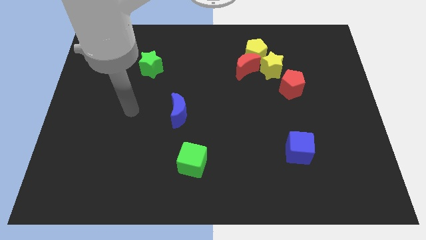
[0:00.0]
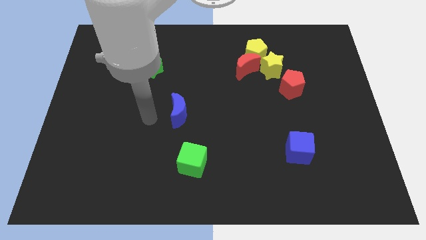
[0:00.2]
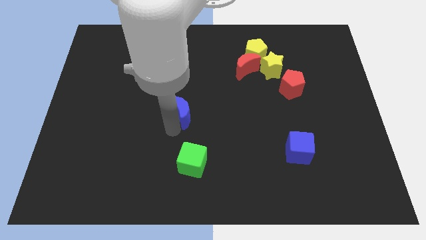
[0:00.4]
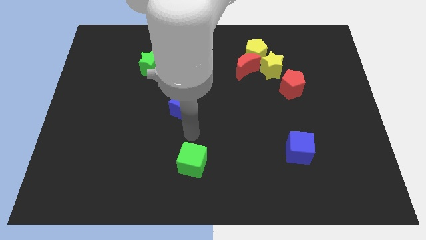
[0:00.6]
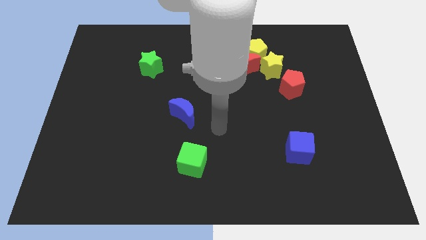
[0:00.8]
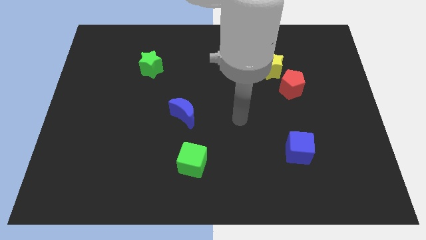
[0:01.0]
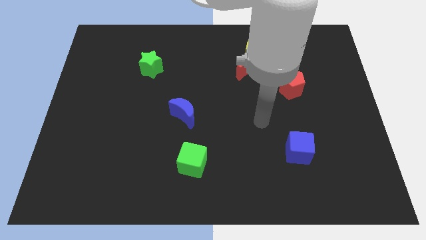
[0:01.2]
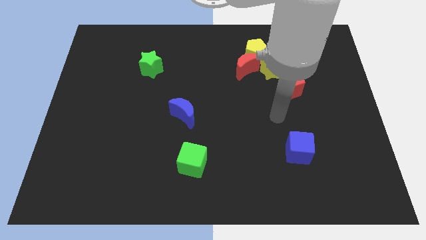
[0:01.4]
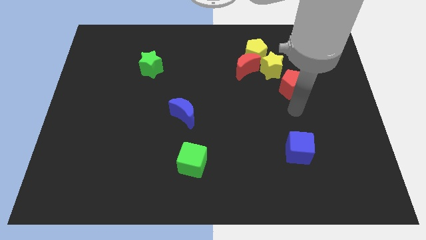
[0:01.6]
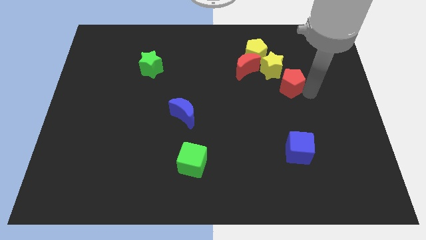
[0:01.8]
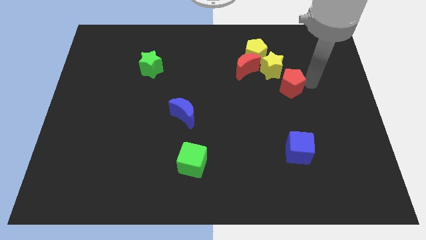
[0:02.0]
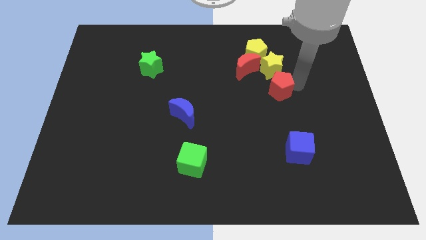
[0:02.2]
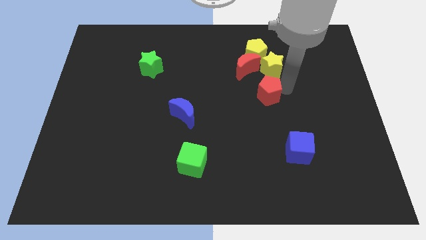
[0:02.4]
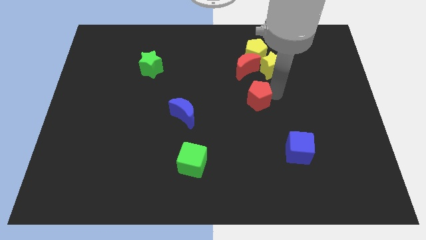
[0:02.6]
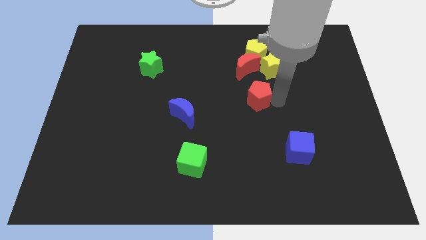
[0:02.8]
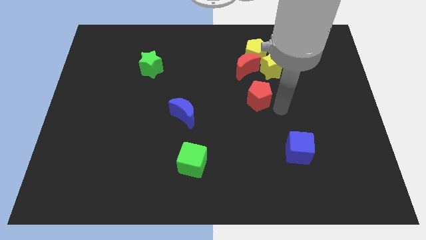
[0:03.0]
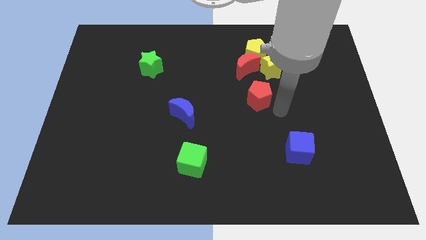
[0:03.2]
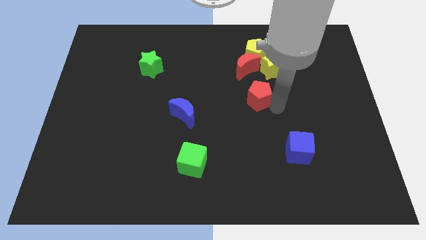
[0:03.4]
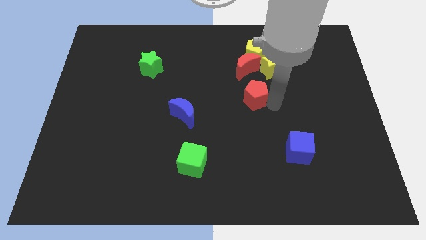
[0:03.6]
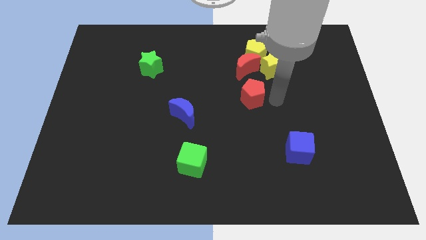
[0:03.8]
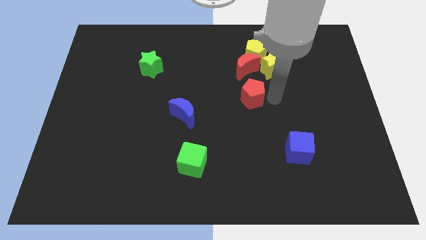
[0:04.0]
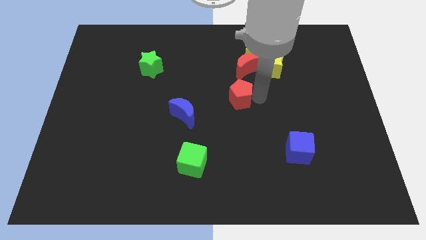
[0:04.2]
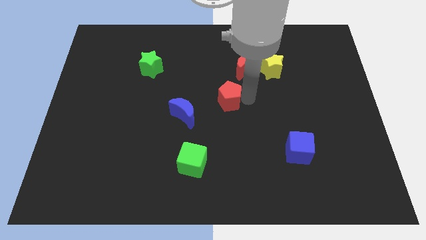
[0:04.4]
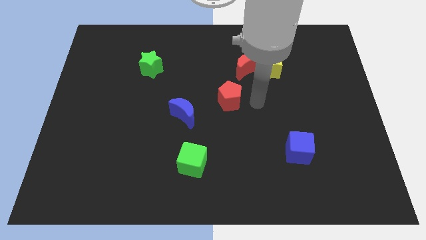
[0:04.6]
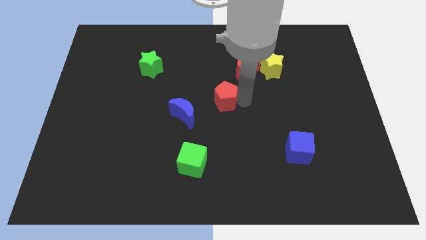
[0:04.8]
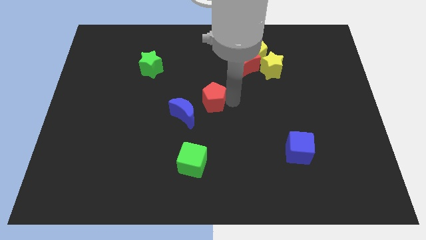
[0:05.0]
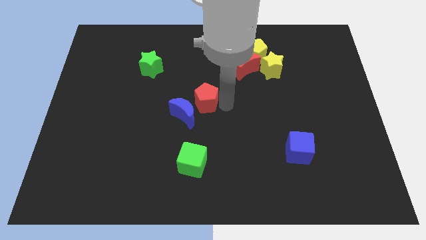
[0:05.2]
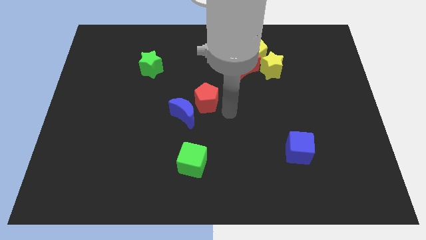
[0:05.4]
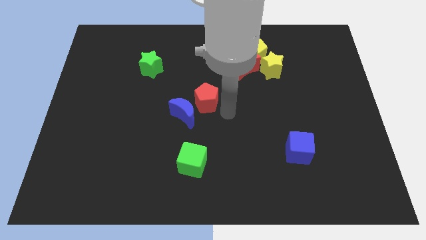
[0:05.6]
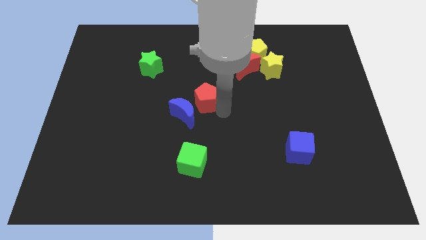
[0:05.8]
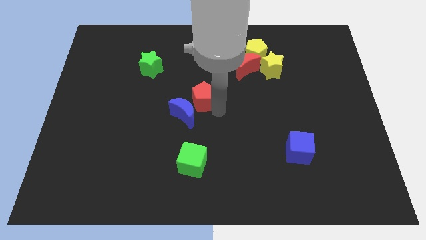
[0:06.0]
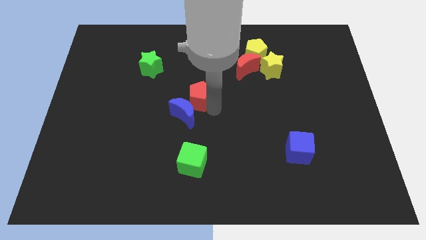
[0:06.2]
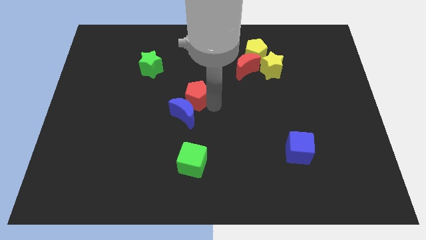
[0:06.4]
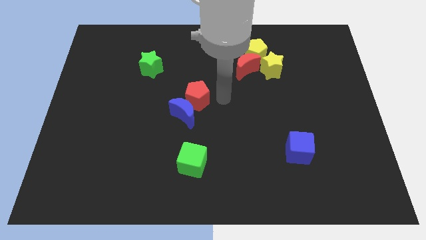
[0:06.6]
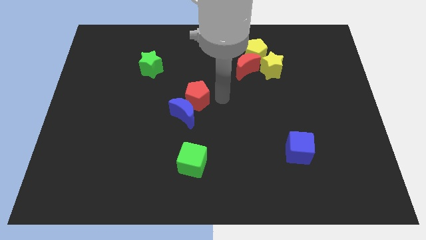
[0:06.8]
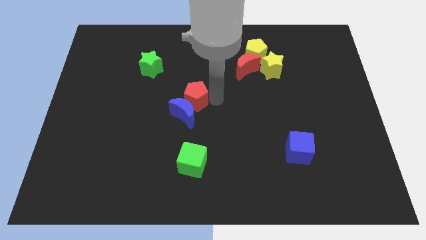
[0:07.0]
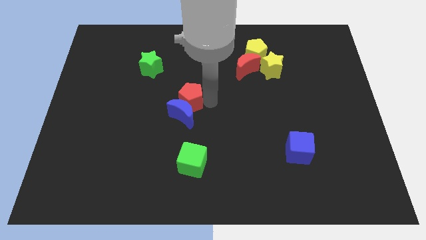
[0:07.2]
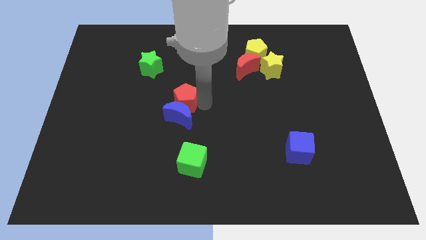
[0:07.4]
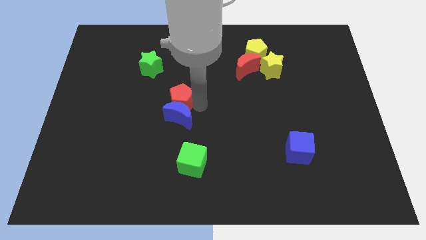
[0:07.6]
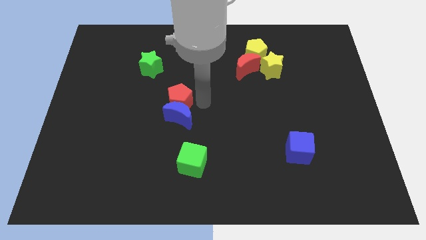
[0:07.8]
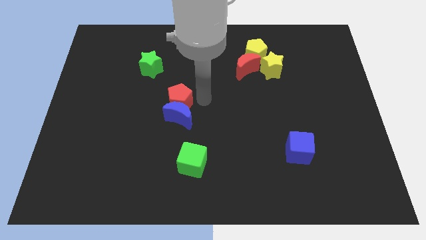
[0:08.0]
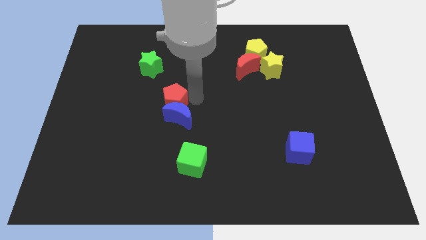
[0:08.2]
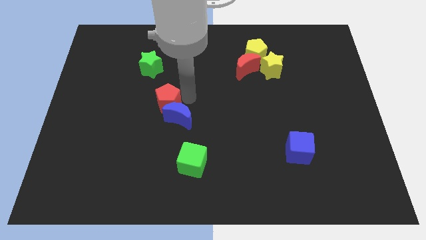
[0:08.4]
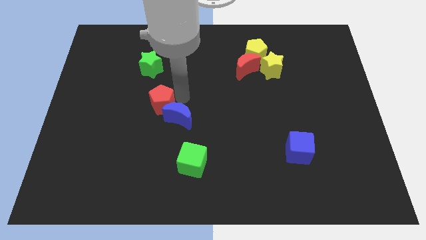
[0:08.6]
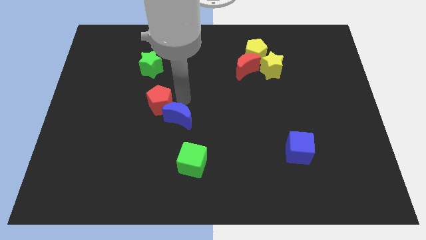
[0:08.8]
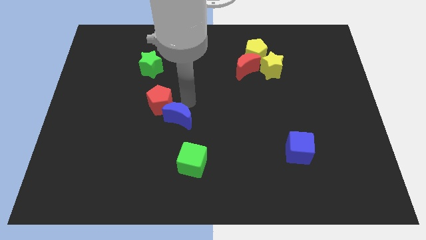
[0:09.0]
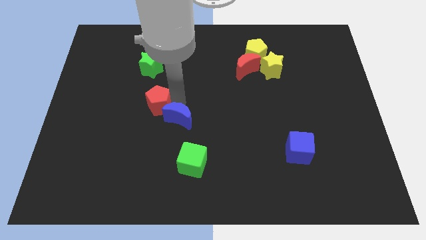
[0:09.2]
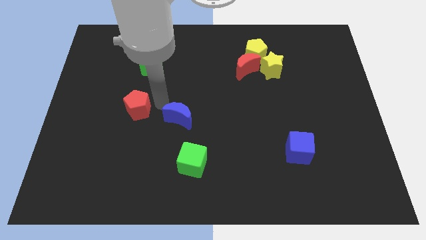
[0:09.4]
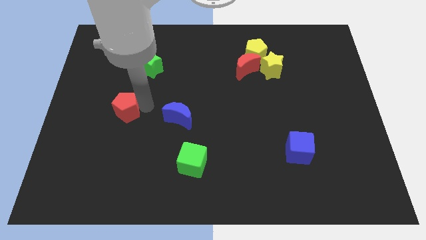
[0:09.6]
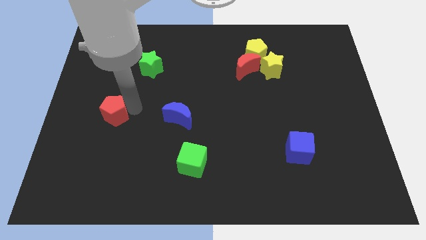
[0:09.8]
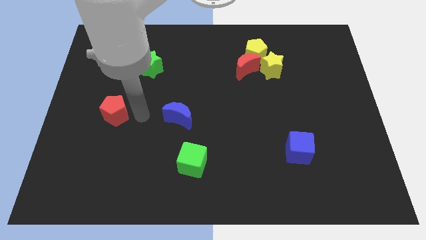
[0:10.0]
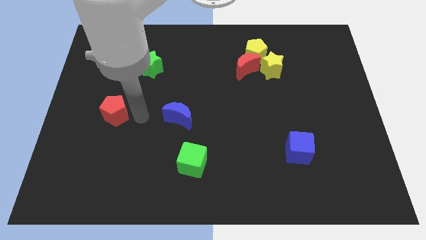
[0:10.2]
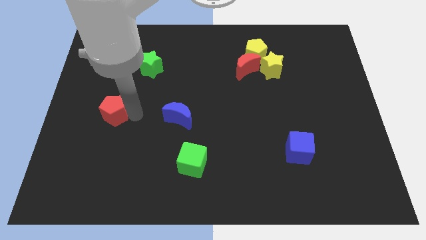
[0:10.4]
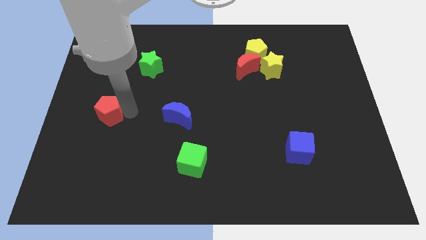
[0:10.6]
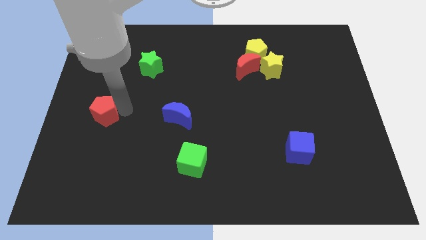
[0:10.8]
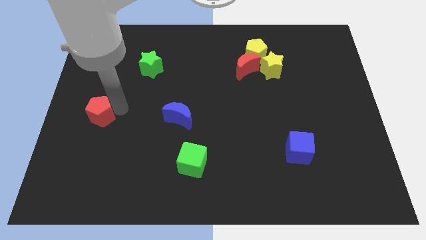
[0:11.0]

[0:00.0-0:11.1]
move the red pentagon to the left side of the board

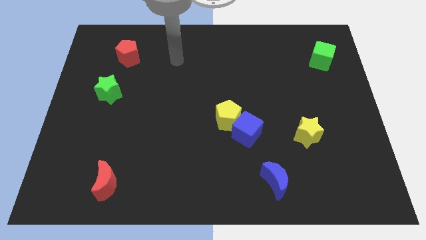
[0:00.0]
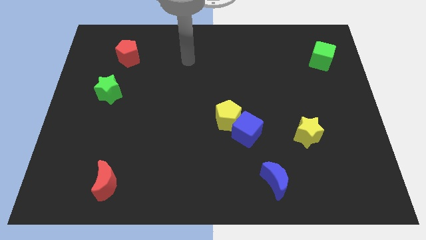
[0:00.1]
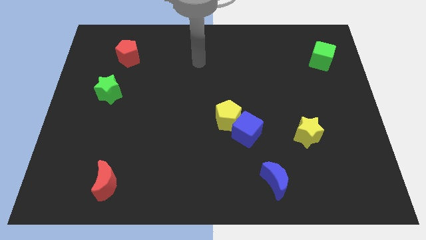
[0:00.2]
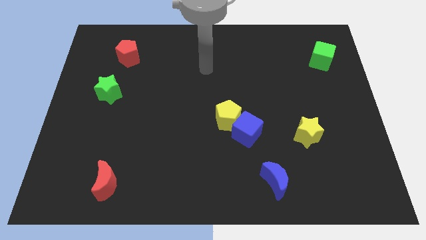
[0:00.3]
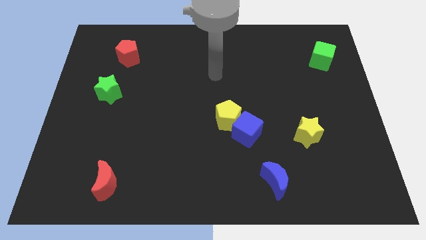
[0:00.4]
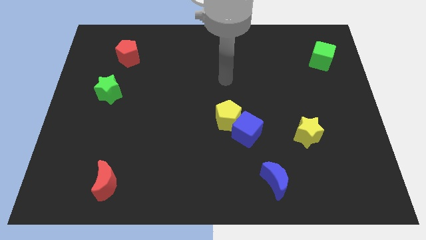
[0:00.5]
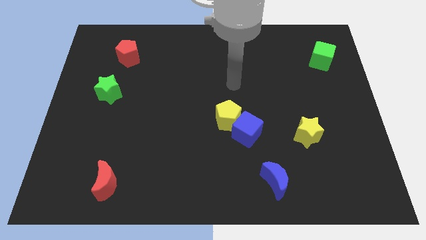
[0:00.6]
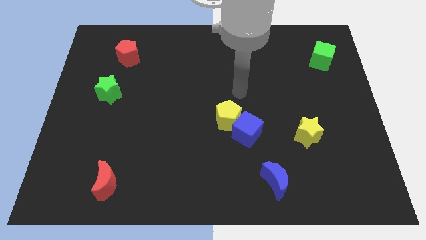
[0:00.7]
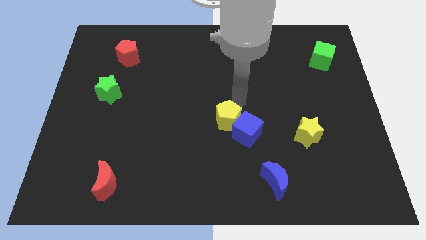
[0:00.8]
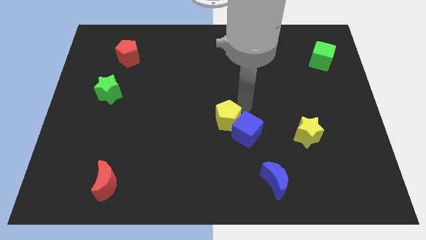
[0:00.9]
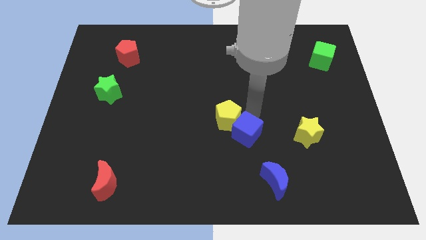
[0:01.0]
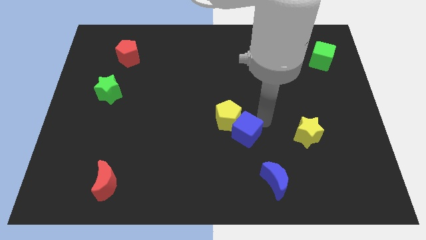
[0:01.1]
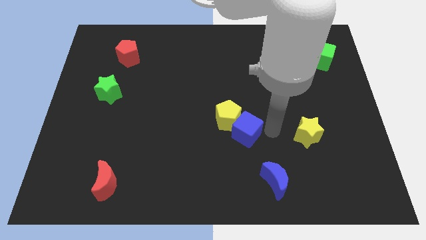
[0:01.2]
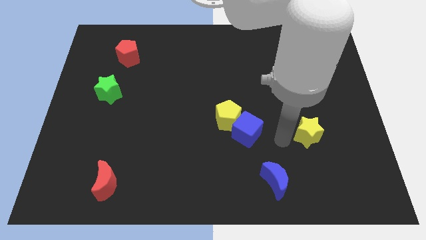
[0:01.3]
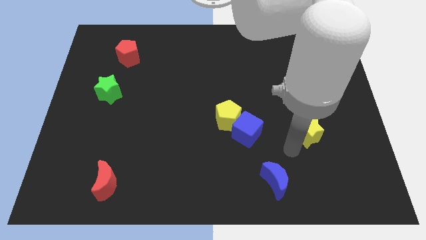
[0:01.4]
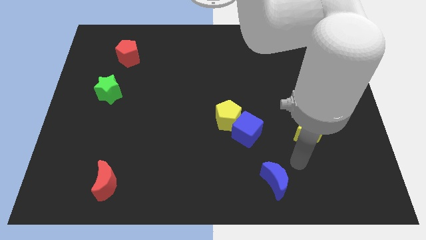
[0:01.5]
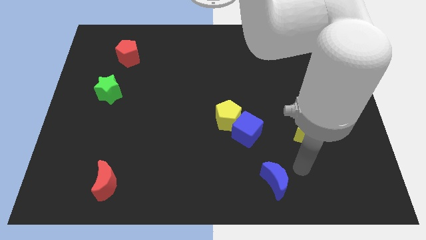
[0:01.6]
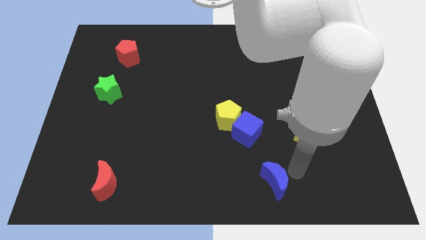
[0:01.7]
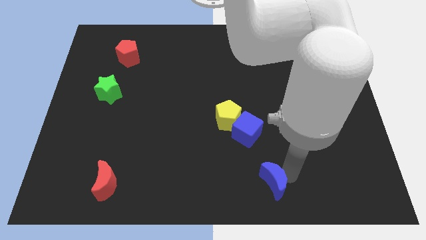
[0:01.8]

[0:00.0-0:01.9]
move the blue moon to the bottom
